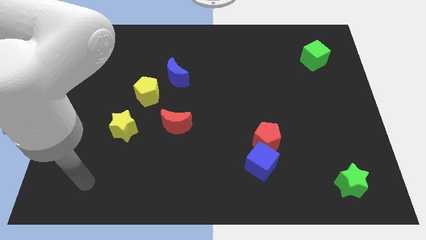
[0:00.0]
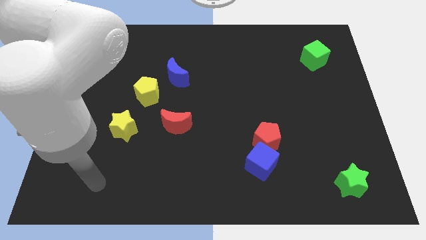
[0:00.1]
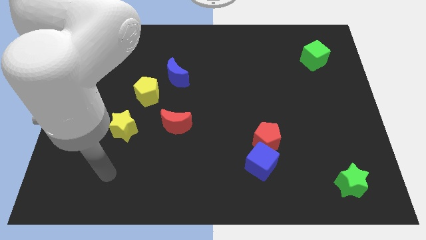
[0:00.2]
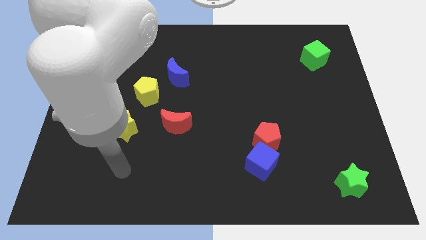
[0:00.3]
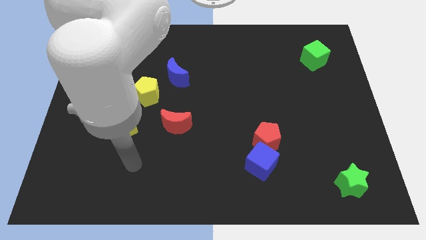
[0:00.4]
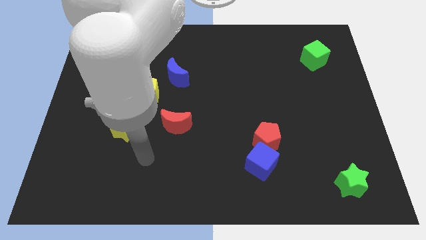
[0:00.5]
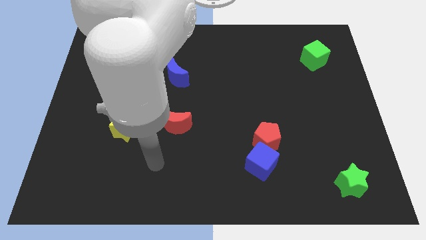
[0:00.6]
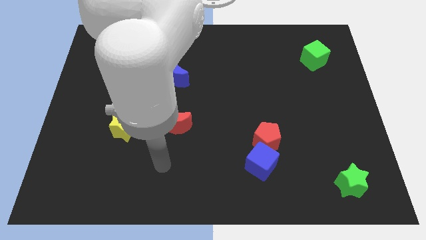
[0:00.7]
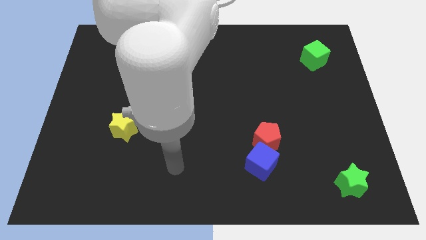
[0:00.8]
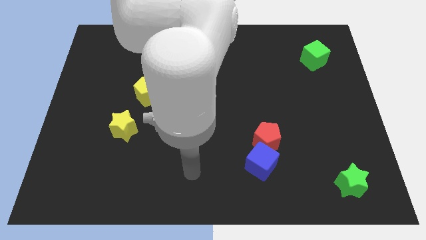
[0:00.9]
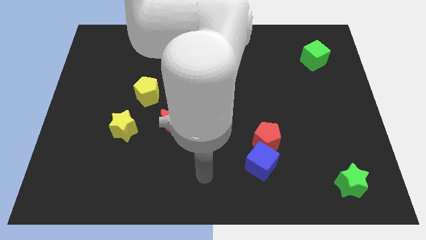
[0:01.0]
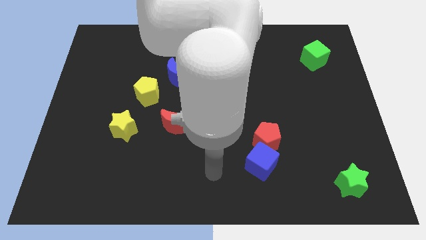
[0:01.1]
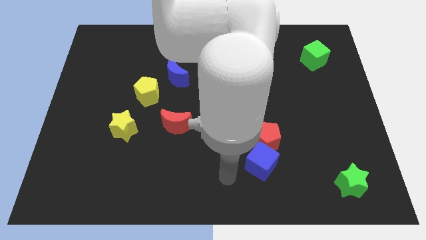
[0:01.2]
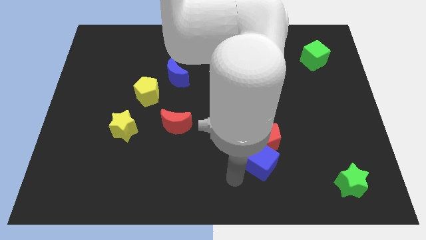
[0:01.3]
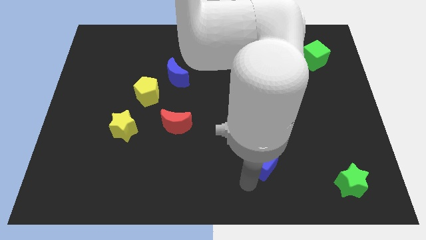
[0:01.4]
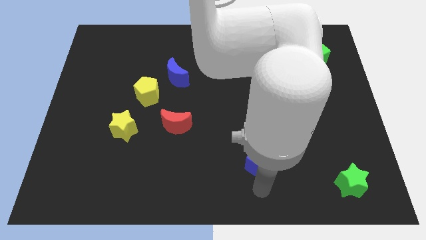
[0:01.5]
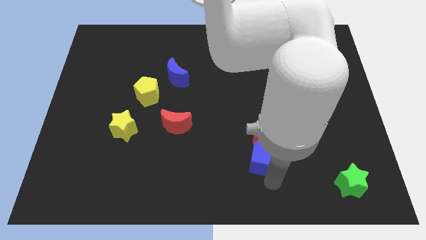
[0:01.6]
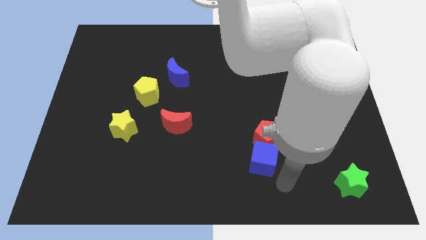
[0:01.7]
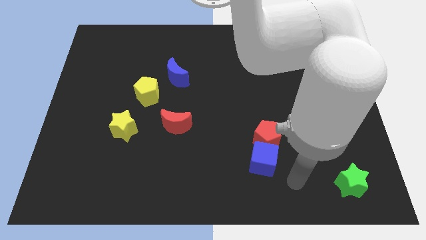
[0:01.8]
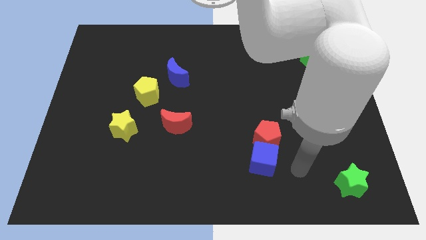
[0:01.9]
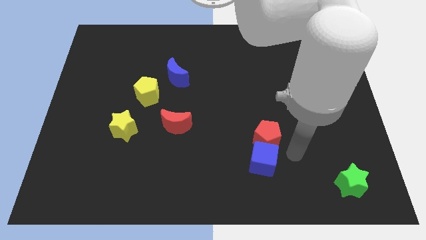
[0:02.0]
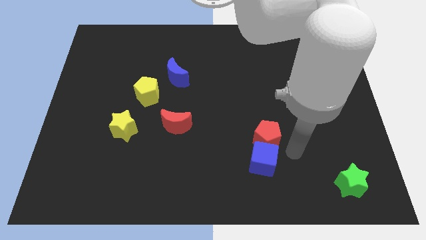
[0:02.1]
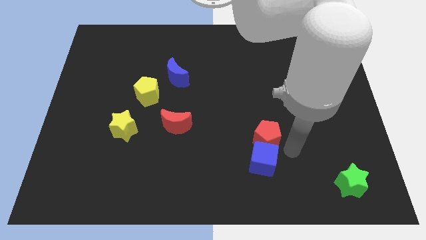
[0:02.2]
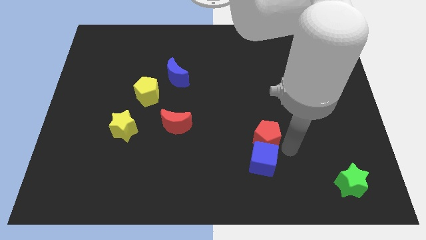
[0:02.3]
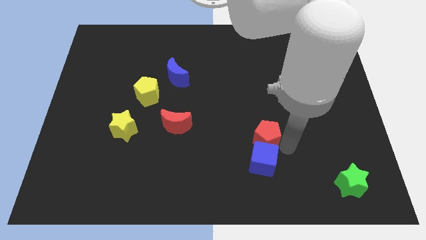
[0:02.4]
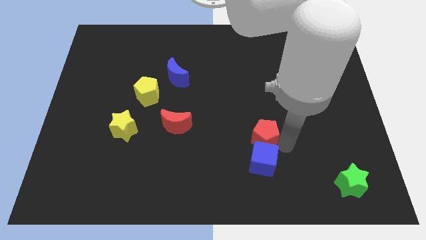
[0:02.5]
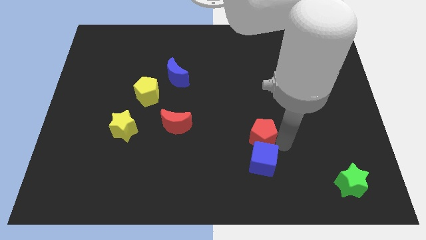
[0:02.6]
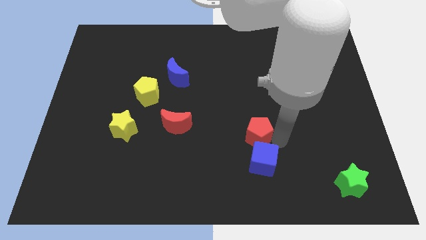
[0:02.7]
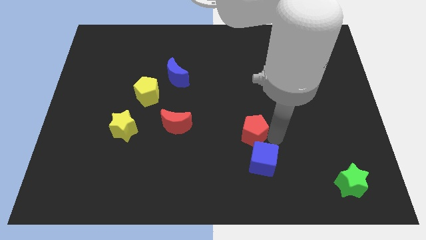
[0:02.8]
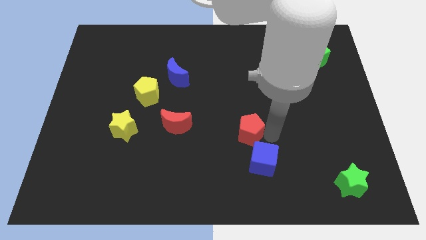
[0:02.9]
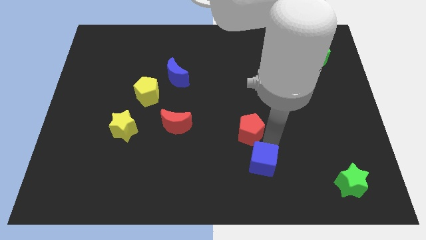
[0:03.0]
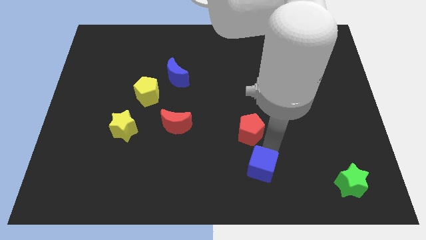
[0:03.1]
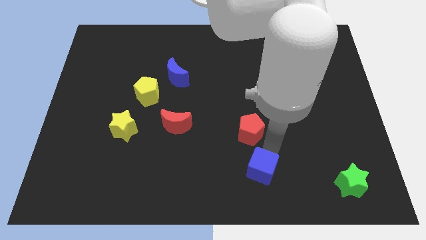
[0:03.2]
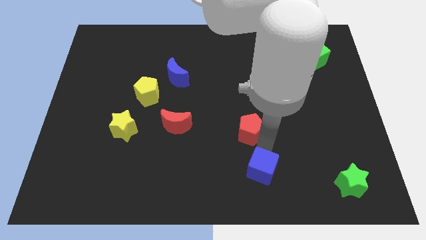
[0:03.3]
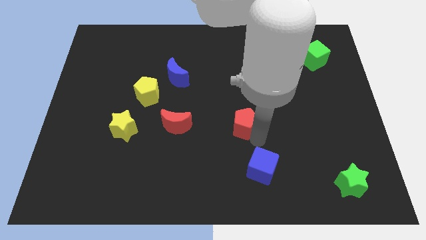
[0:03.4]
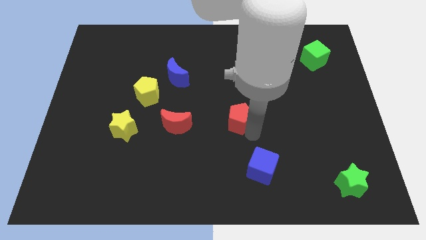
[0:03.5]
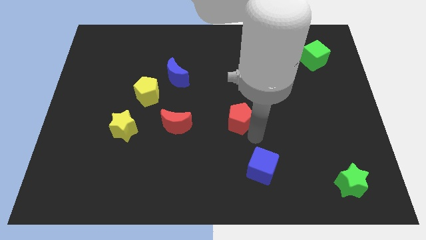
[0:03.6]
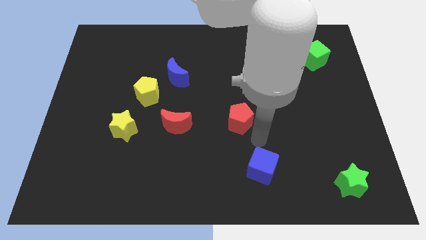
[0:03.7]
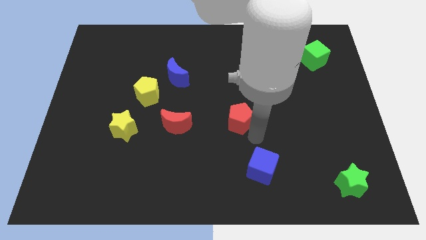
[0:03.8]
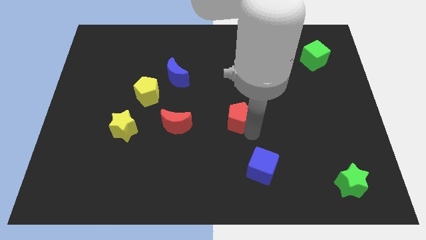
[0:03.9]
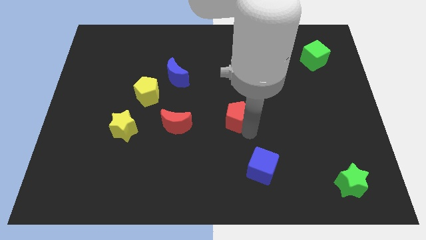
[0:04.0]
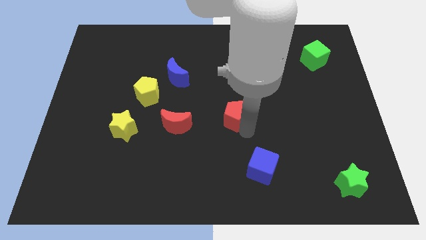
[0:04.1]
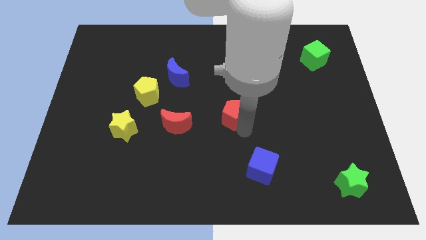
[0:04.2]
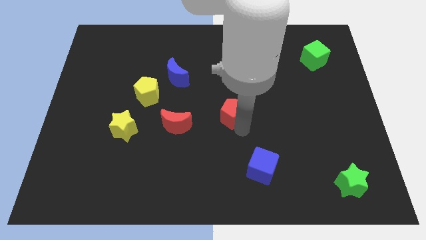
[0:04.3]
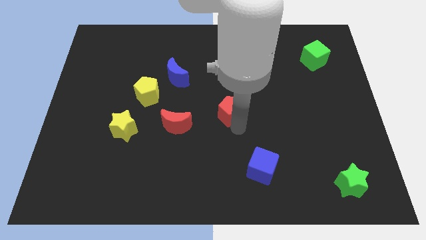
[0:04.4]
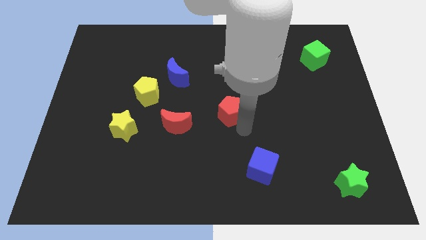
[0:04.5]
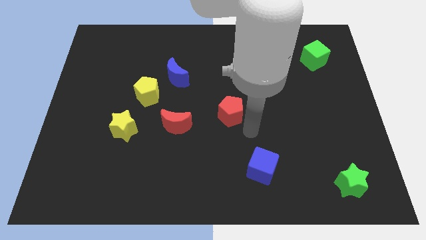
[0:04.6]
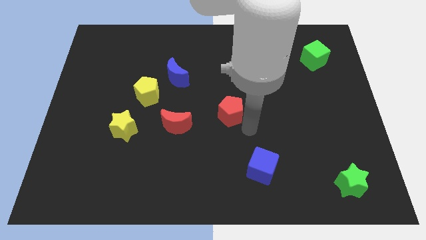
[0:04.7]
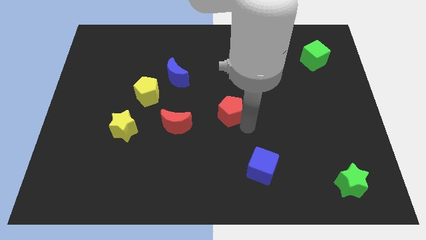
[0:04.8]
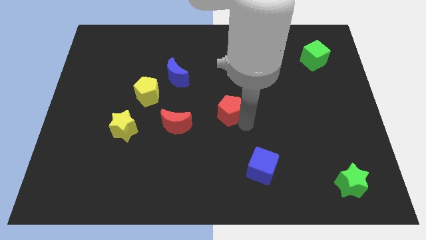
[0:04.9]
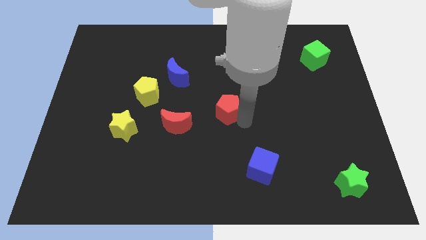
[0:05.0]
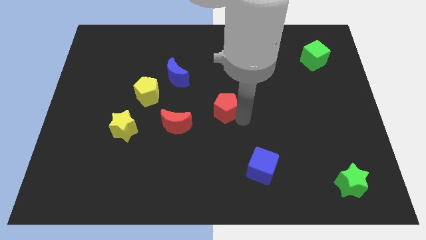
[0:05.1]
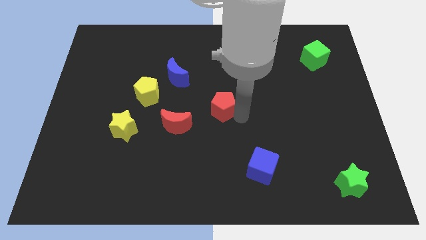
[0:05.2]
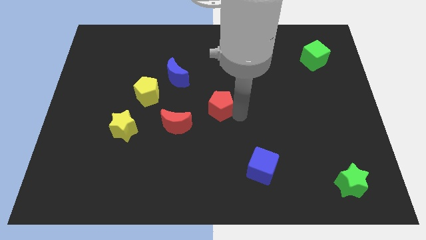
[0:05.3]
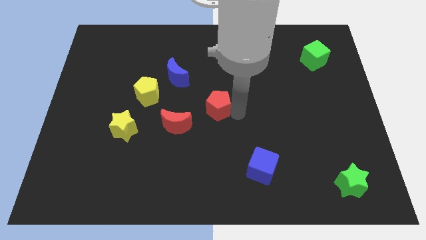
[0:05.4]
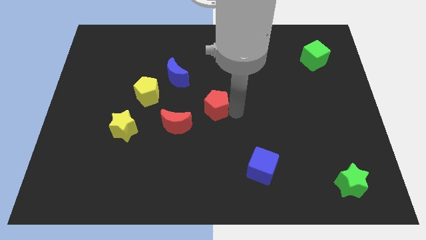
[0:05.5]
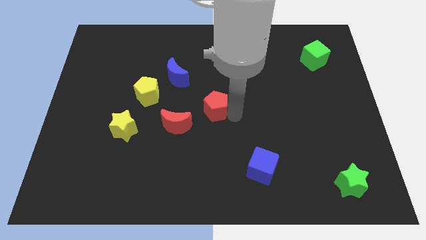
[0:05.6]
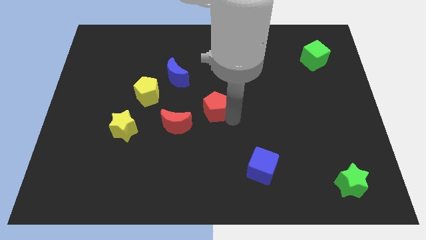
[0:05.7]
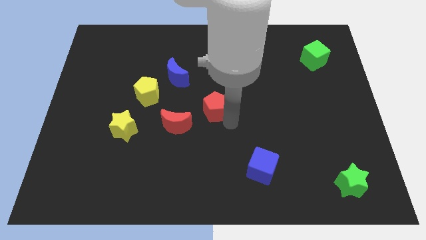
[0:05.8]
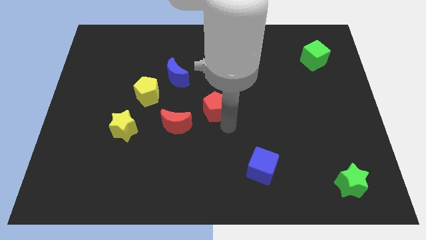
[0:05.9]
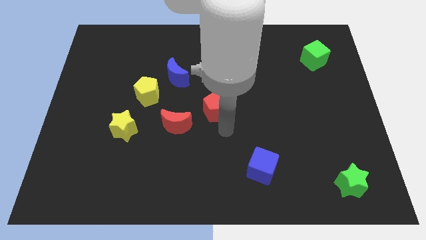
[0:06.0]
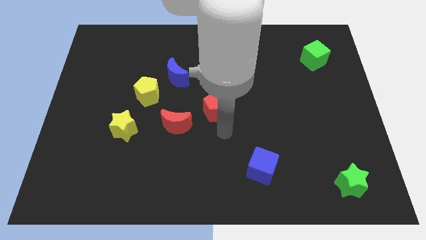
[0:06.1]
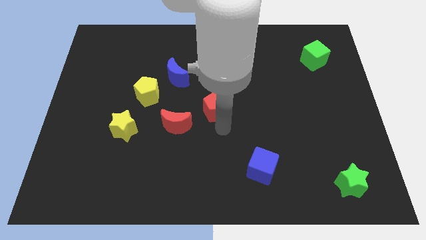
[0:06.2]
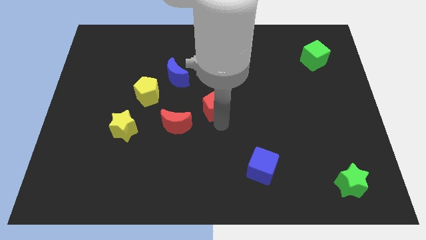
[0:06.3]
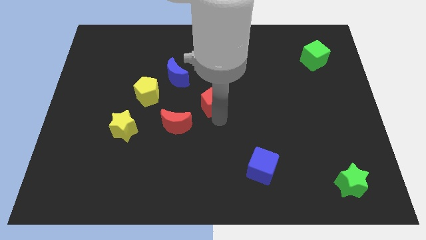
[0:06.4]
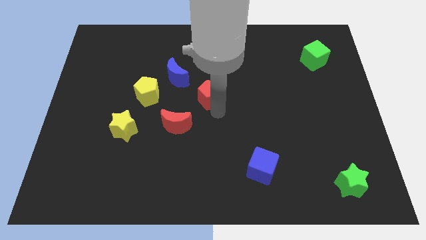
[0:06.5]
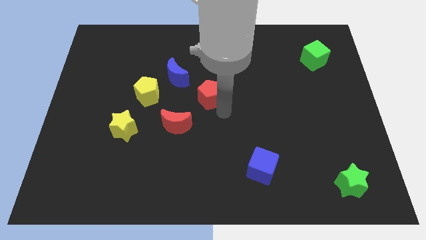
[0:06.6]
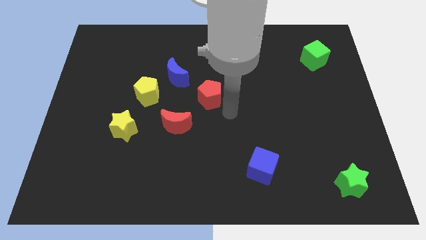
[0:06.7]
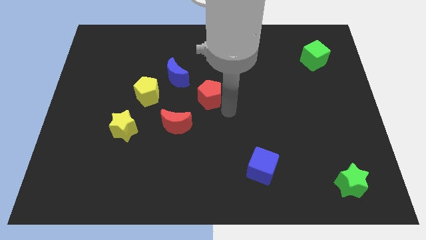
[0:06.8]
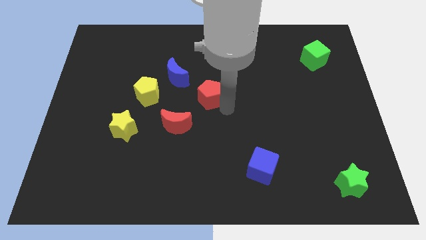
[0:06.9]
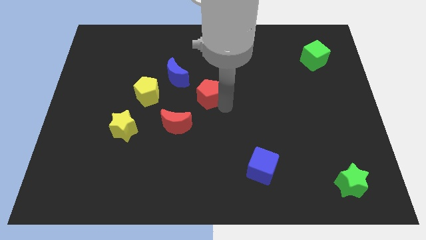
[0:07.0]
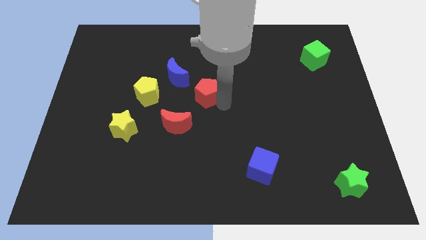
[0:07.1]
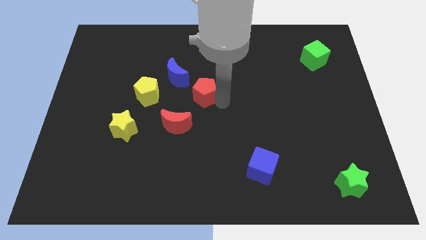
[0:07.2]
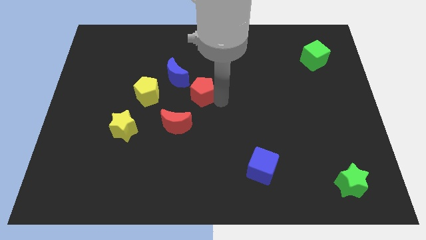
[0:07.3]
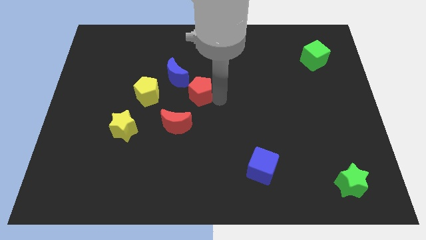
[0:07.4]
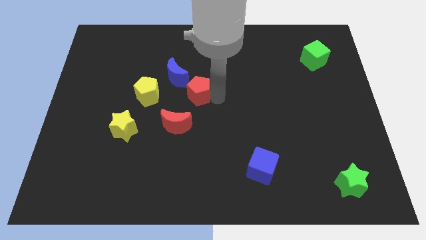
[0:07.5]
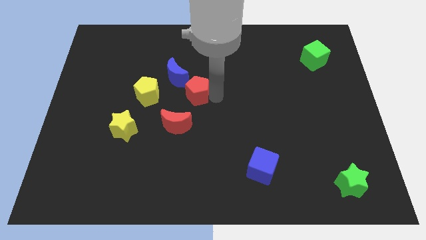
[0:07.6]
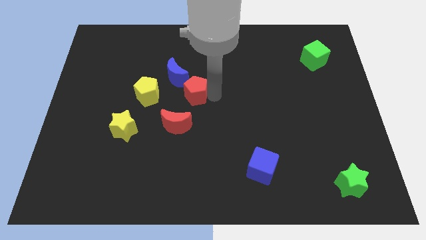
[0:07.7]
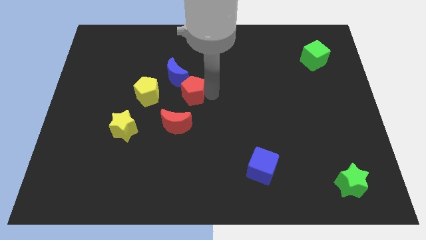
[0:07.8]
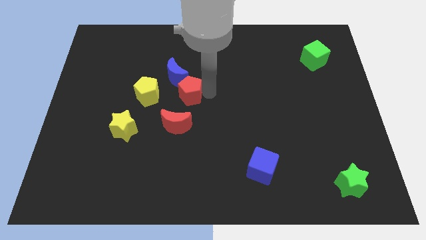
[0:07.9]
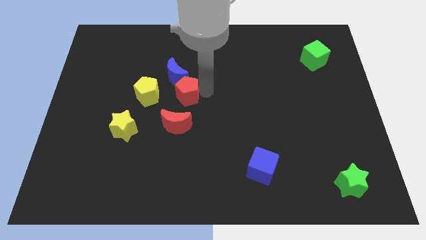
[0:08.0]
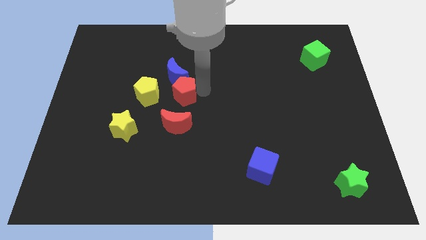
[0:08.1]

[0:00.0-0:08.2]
move the red pentagon to the blue moon
